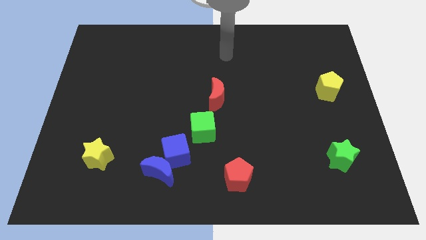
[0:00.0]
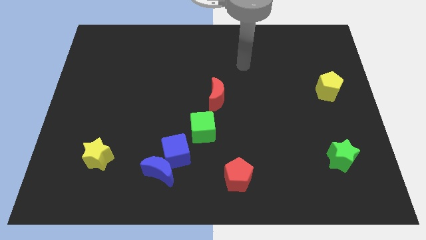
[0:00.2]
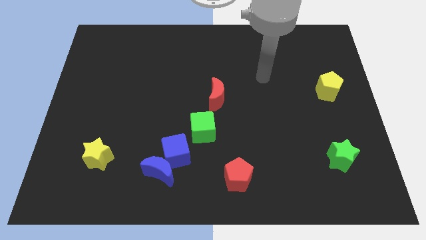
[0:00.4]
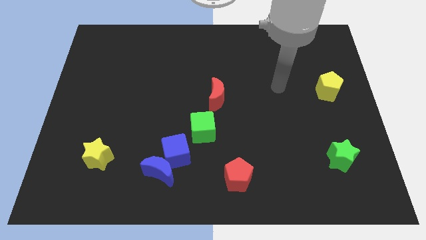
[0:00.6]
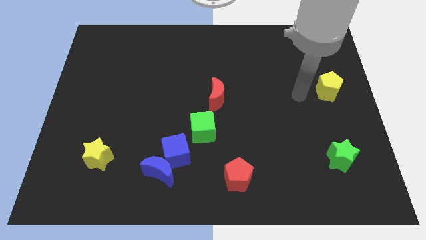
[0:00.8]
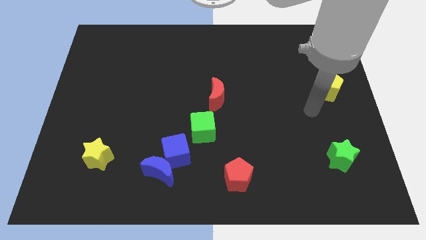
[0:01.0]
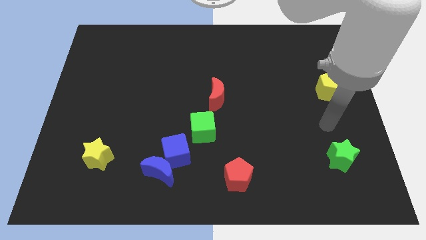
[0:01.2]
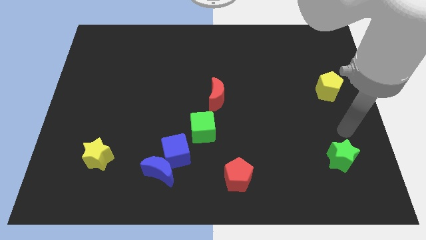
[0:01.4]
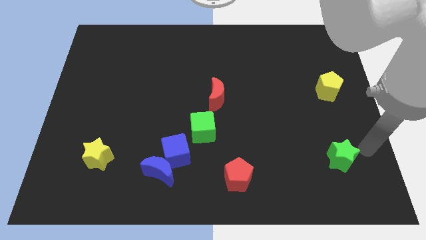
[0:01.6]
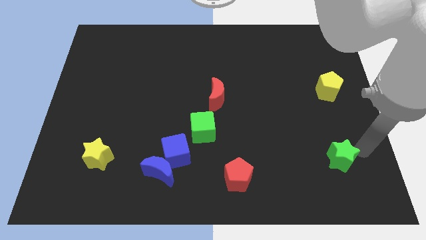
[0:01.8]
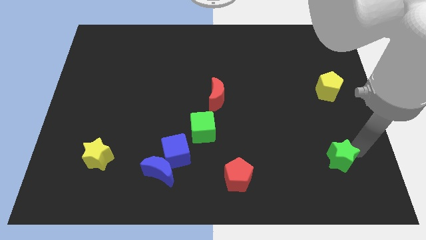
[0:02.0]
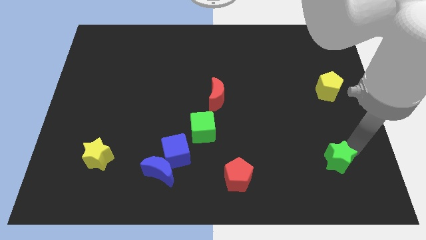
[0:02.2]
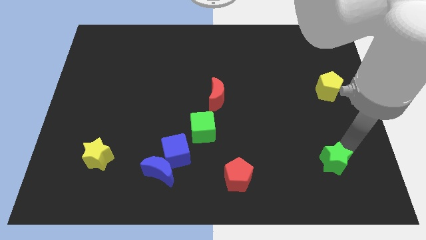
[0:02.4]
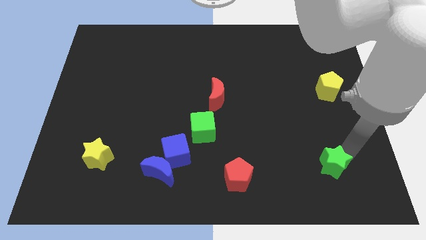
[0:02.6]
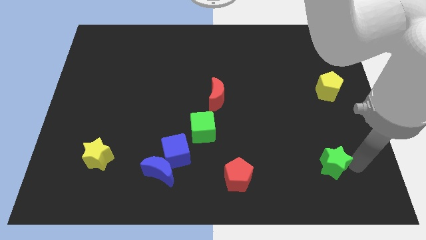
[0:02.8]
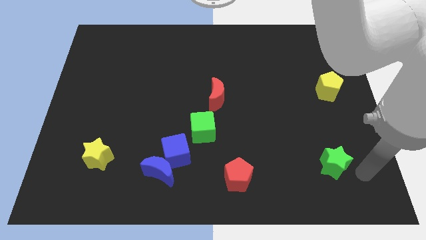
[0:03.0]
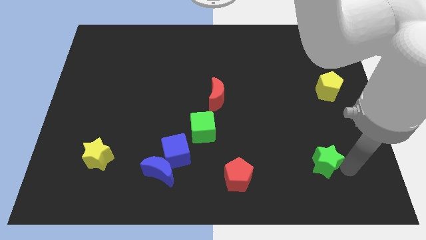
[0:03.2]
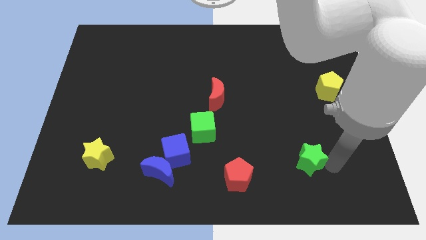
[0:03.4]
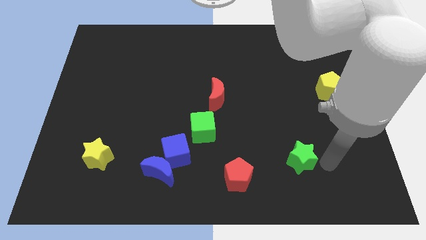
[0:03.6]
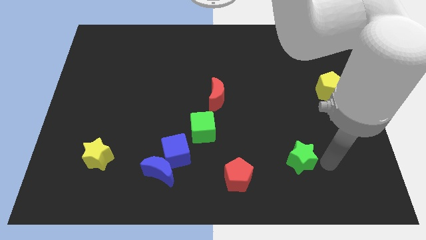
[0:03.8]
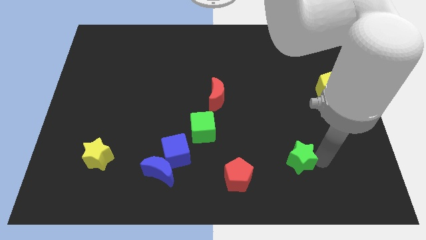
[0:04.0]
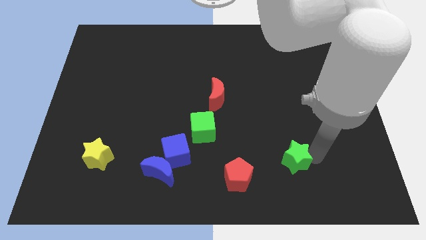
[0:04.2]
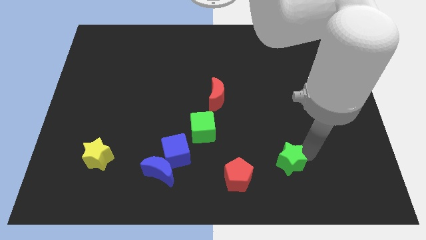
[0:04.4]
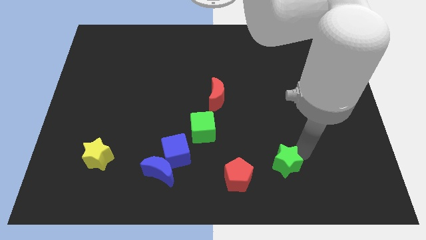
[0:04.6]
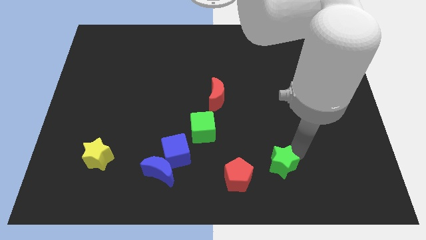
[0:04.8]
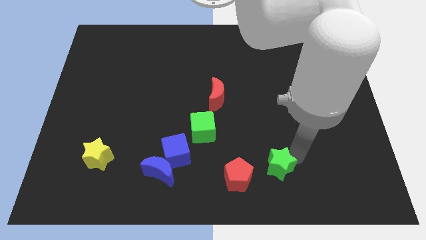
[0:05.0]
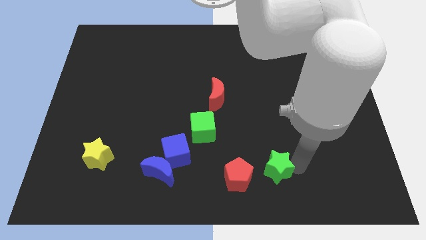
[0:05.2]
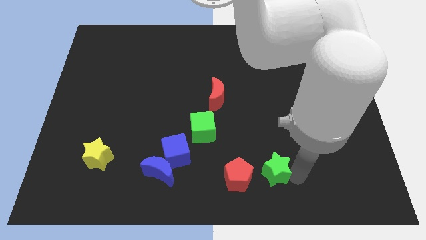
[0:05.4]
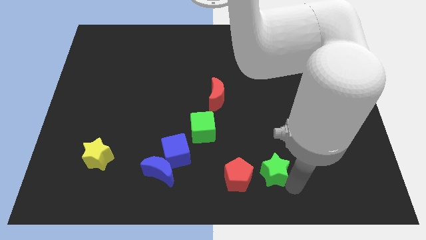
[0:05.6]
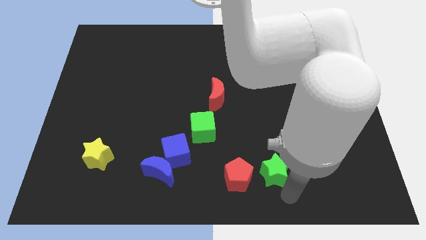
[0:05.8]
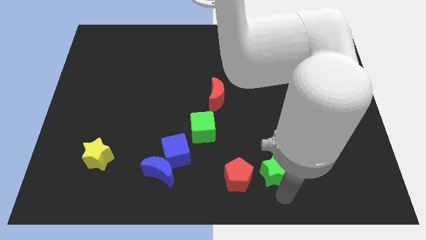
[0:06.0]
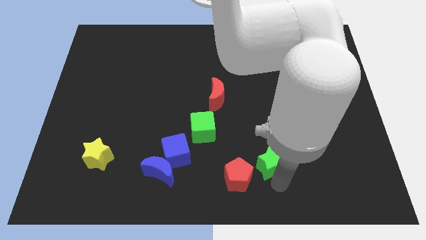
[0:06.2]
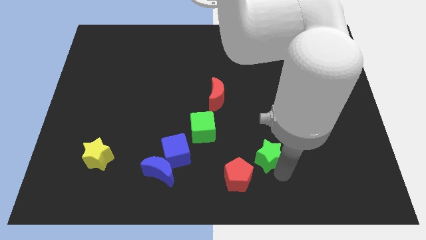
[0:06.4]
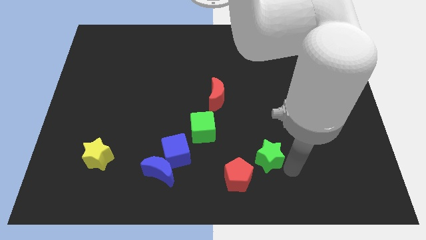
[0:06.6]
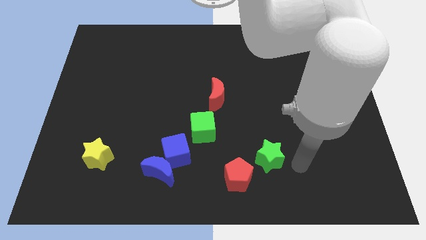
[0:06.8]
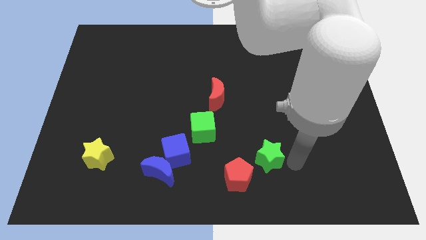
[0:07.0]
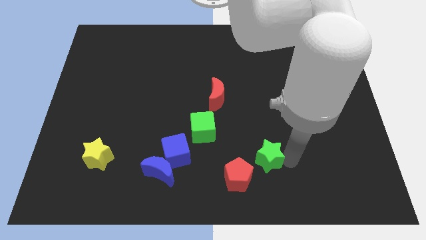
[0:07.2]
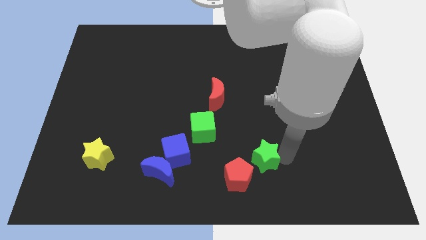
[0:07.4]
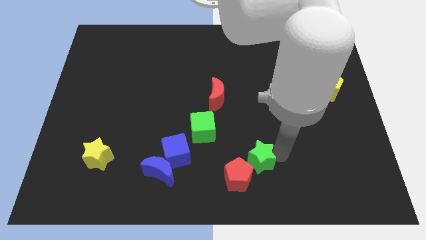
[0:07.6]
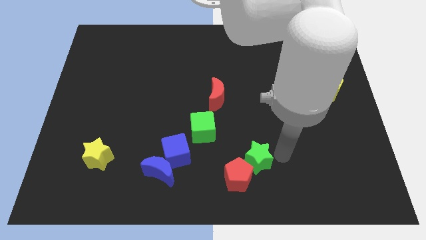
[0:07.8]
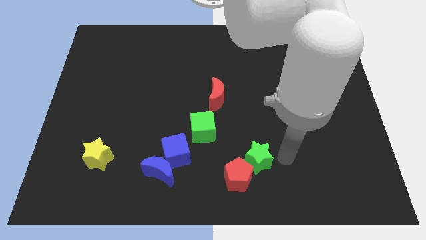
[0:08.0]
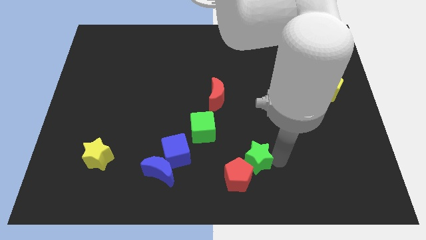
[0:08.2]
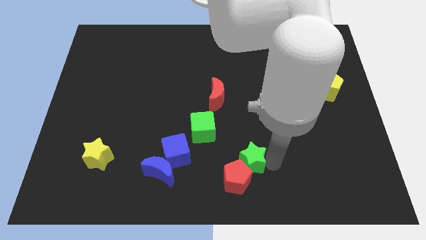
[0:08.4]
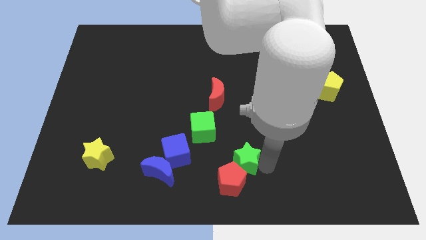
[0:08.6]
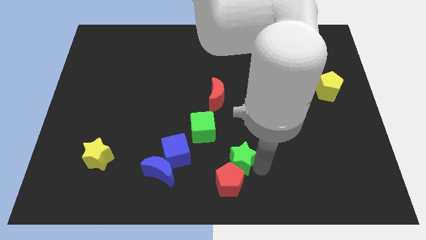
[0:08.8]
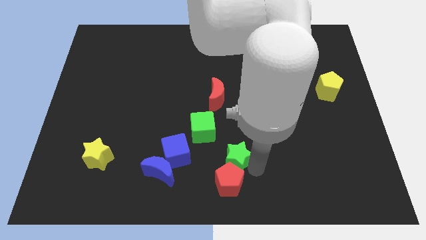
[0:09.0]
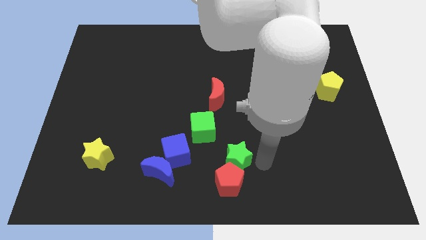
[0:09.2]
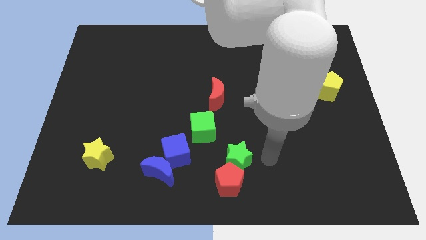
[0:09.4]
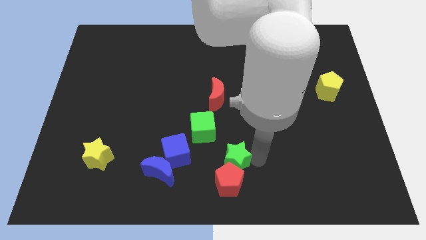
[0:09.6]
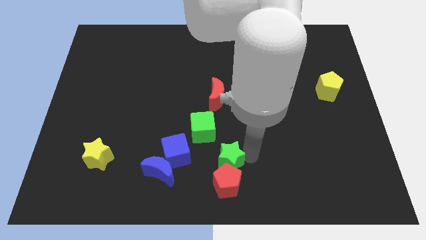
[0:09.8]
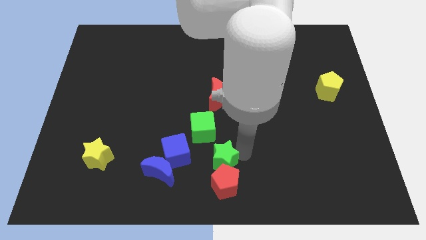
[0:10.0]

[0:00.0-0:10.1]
move the green star to the bottom side of the green cube

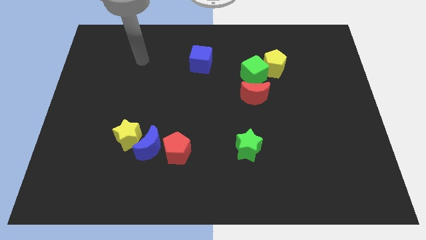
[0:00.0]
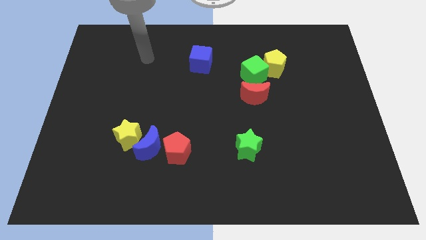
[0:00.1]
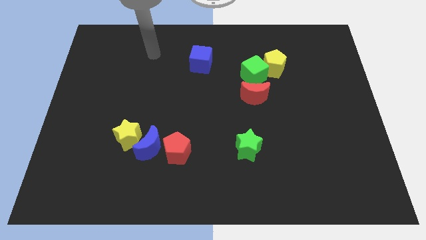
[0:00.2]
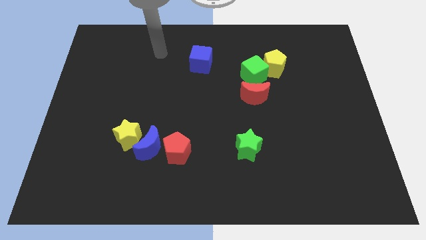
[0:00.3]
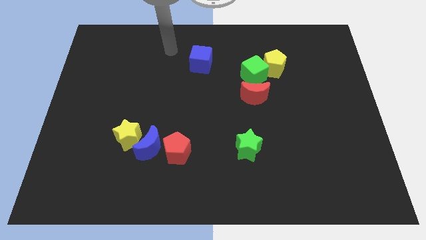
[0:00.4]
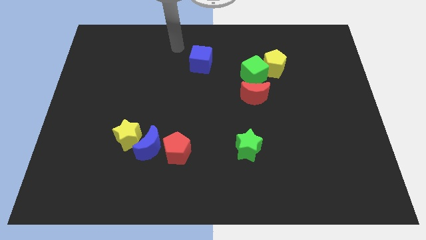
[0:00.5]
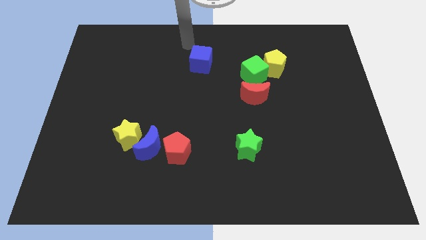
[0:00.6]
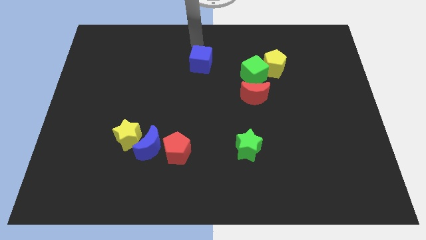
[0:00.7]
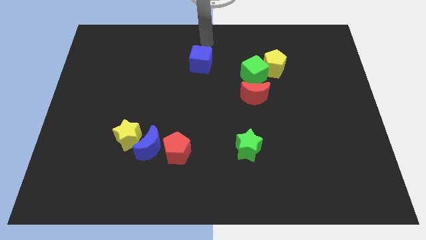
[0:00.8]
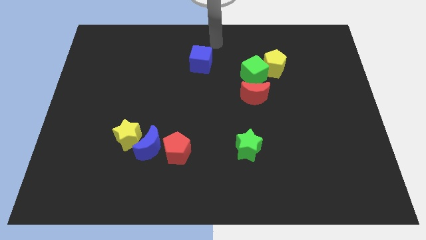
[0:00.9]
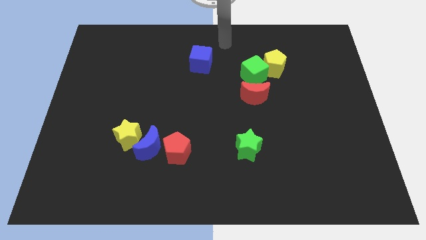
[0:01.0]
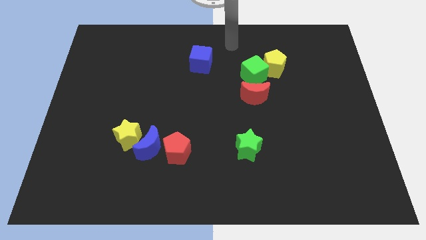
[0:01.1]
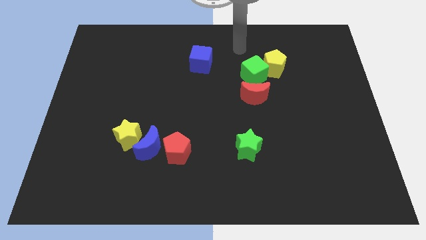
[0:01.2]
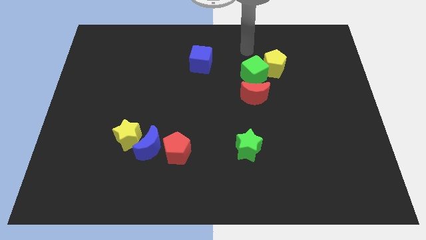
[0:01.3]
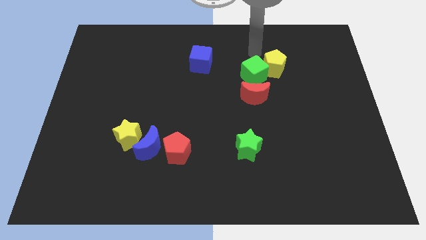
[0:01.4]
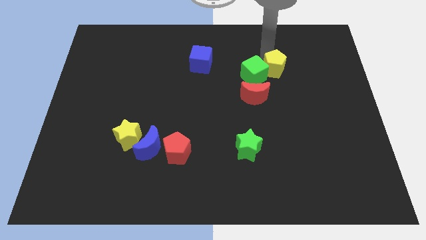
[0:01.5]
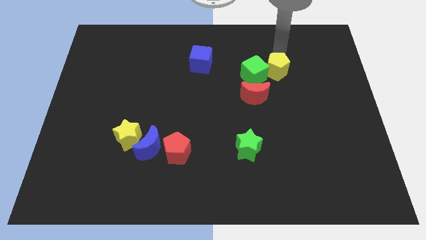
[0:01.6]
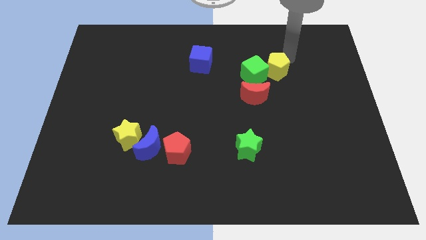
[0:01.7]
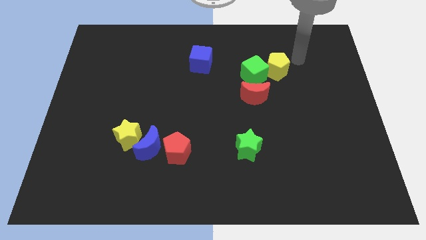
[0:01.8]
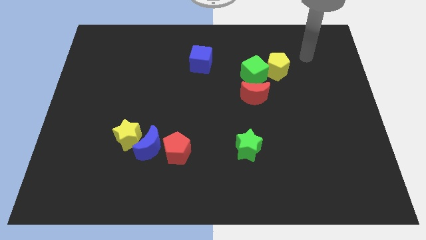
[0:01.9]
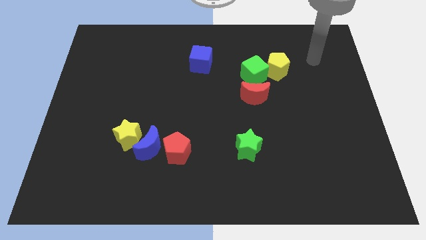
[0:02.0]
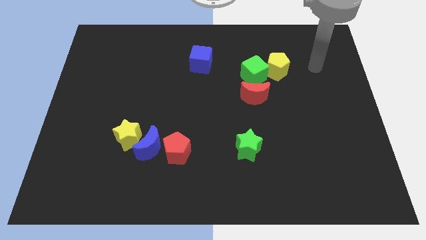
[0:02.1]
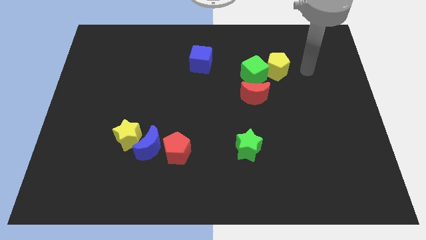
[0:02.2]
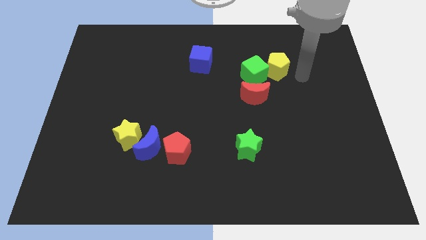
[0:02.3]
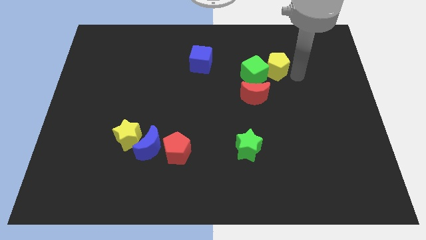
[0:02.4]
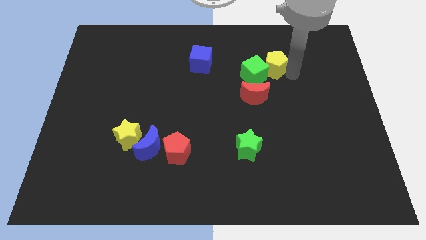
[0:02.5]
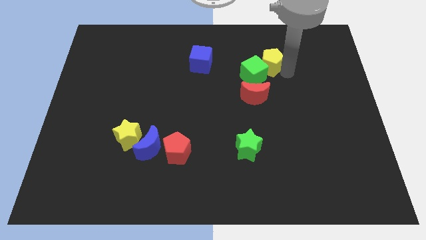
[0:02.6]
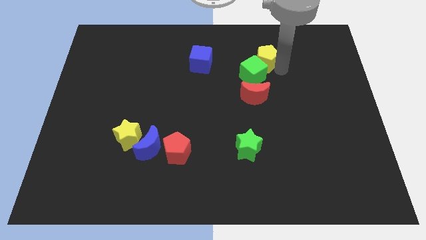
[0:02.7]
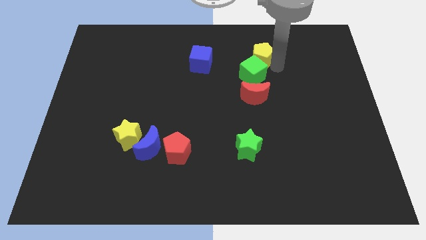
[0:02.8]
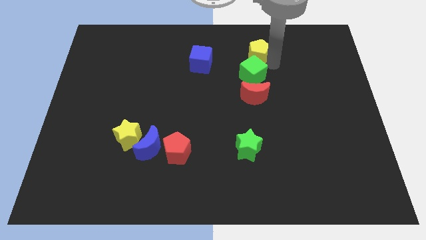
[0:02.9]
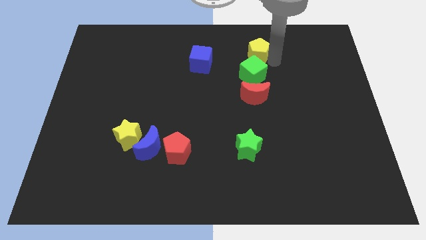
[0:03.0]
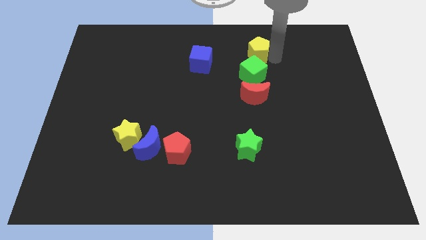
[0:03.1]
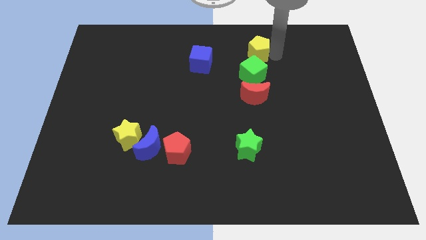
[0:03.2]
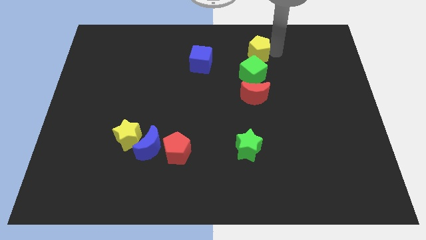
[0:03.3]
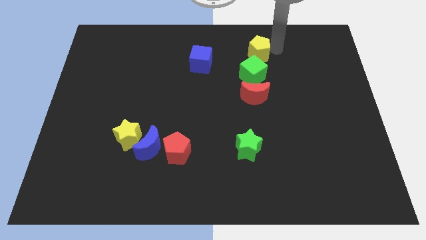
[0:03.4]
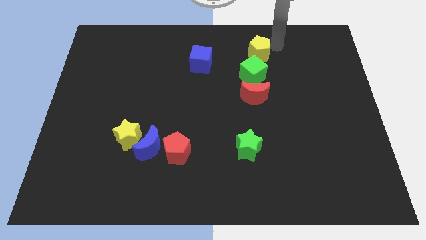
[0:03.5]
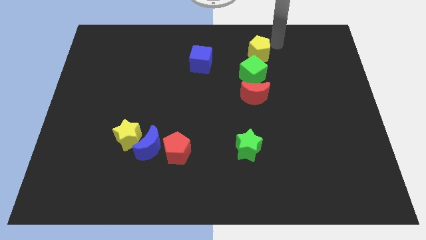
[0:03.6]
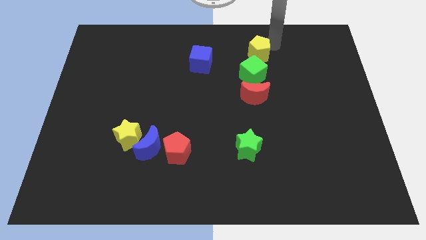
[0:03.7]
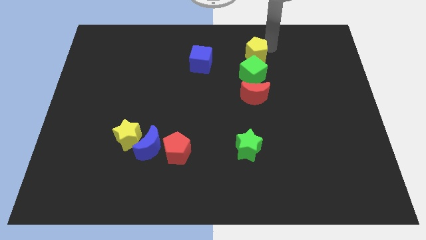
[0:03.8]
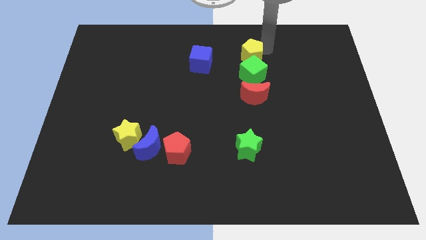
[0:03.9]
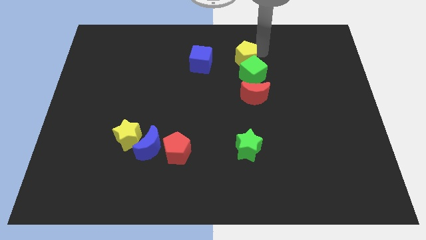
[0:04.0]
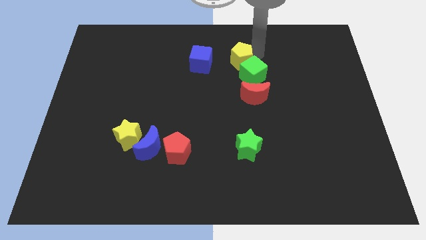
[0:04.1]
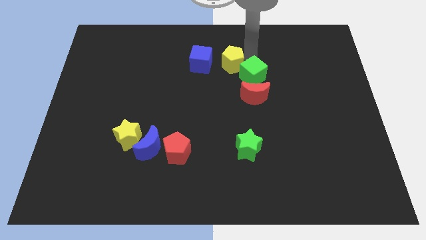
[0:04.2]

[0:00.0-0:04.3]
move the yellow pentagon left of the green cube
